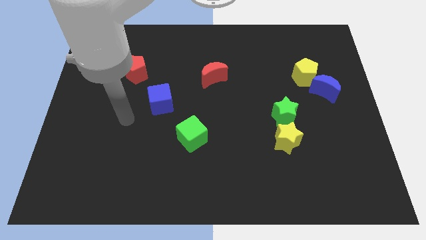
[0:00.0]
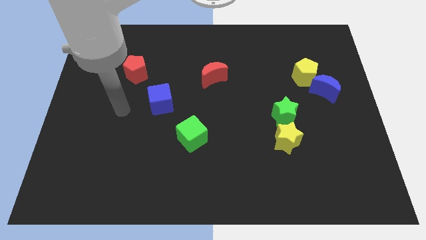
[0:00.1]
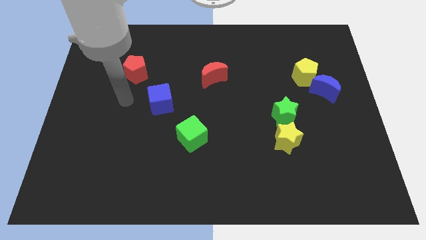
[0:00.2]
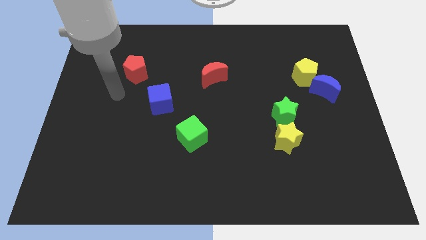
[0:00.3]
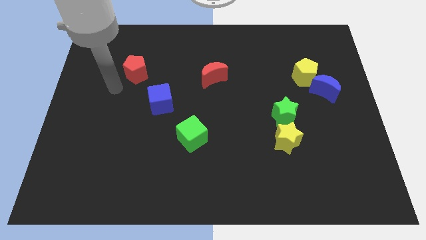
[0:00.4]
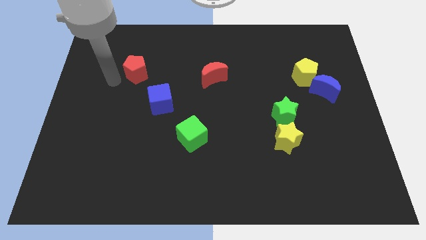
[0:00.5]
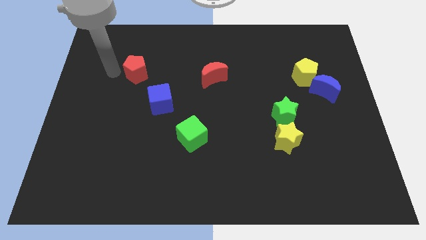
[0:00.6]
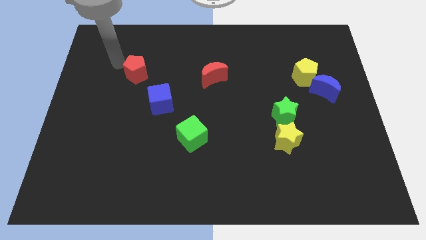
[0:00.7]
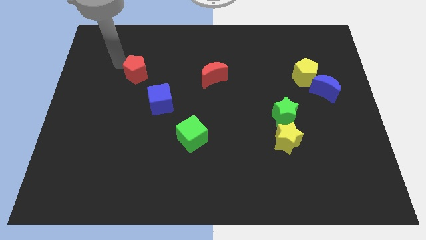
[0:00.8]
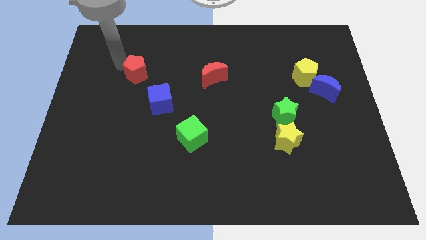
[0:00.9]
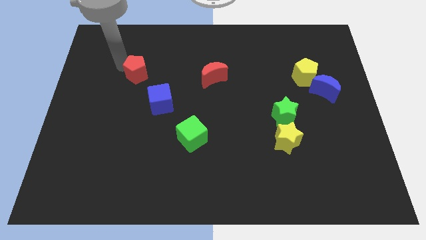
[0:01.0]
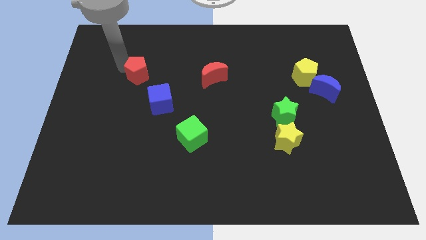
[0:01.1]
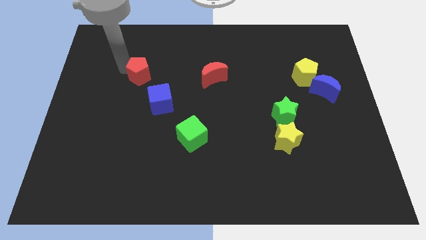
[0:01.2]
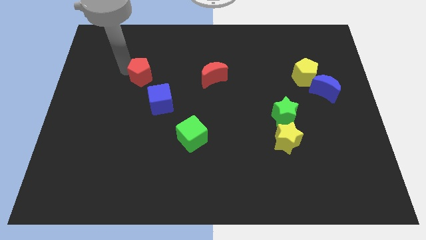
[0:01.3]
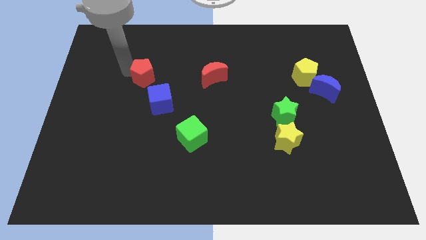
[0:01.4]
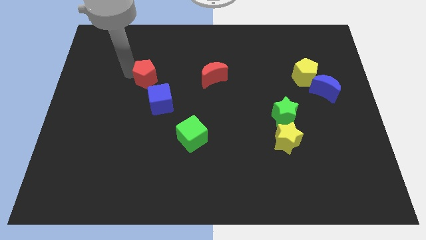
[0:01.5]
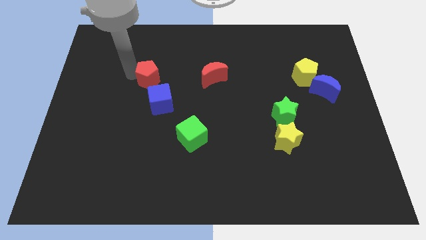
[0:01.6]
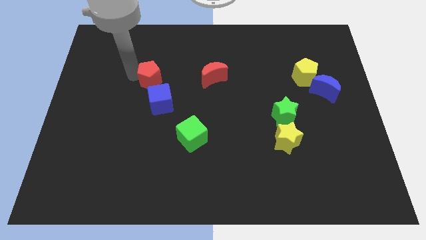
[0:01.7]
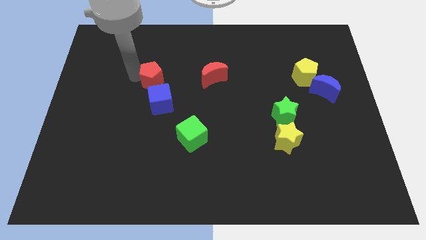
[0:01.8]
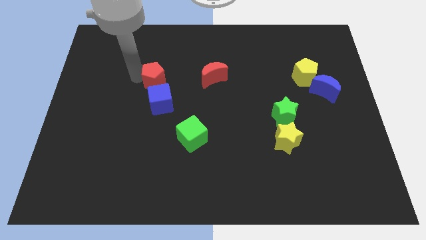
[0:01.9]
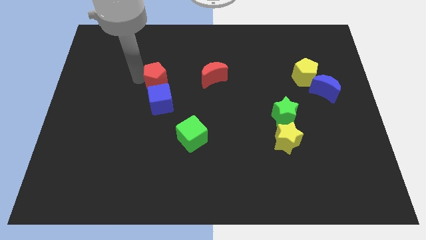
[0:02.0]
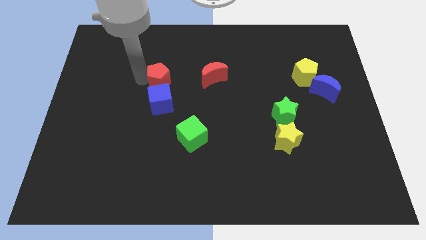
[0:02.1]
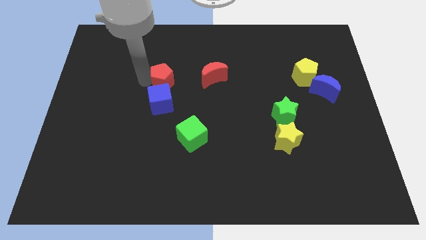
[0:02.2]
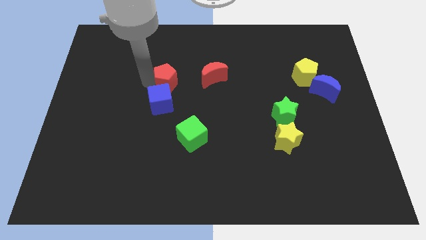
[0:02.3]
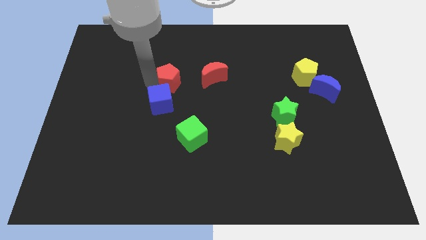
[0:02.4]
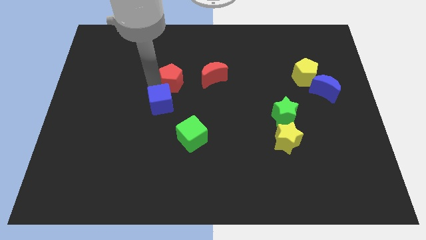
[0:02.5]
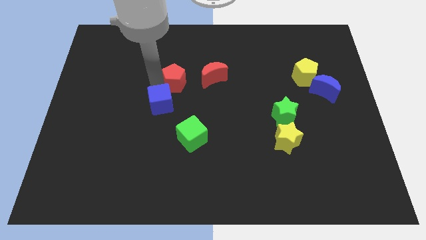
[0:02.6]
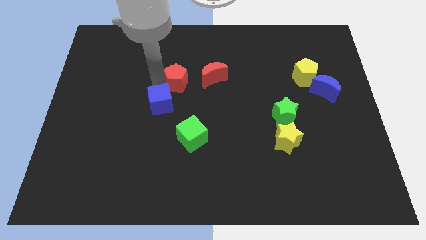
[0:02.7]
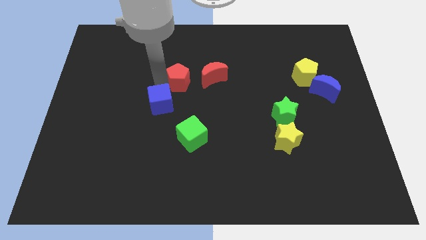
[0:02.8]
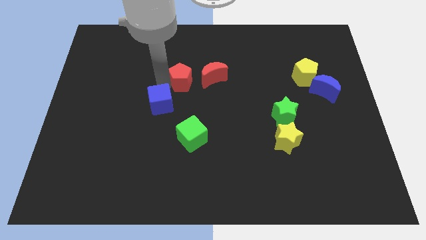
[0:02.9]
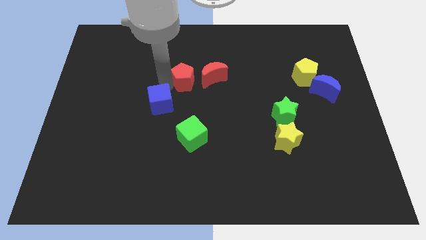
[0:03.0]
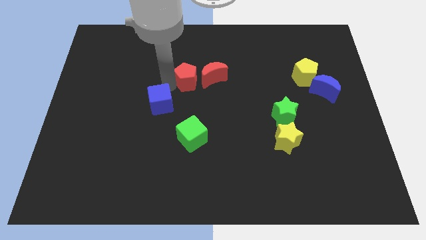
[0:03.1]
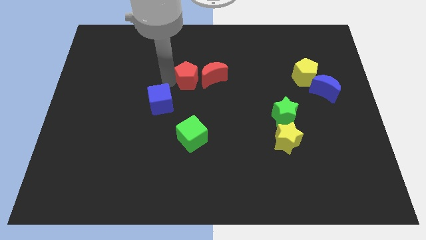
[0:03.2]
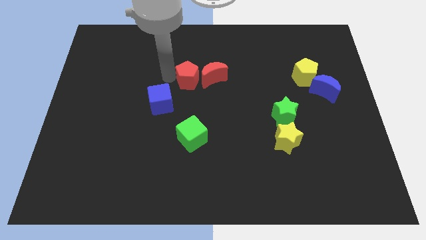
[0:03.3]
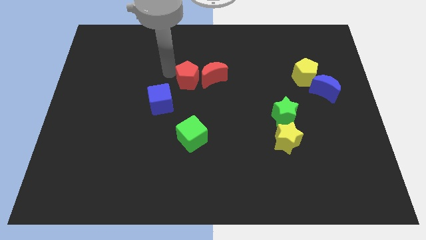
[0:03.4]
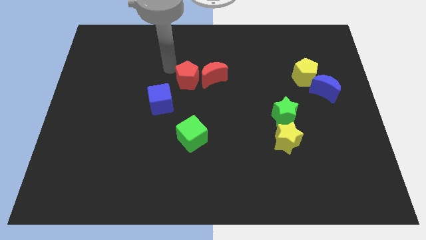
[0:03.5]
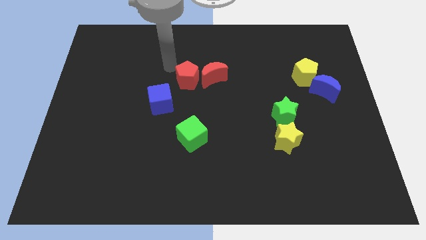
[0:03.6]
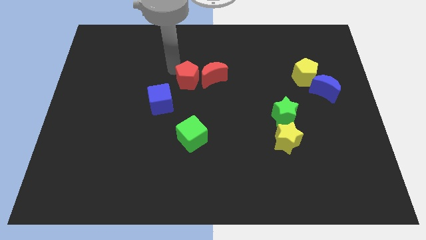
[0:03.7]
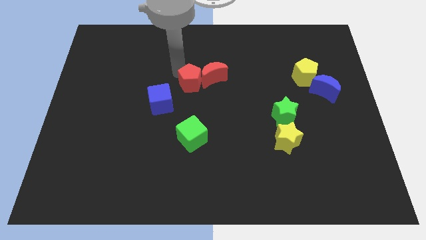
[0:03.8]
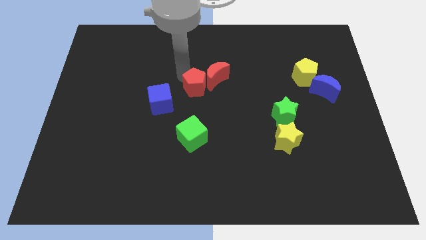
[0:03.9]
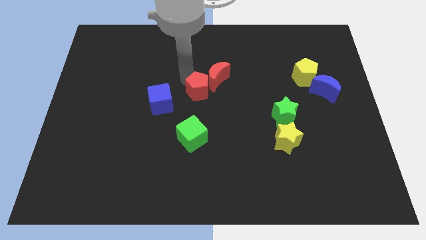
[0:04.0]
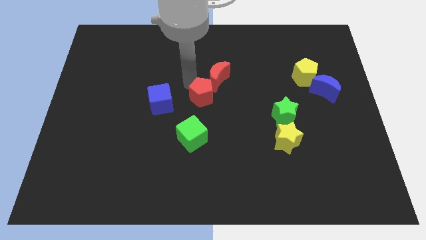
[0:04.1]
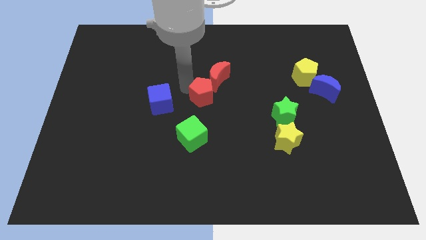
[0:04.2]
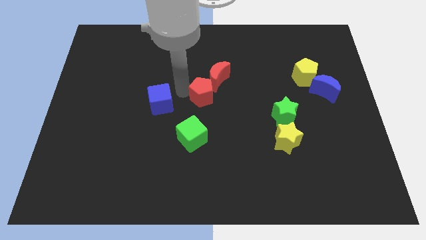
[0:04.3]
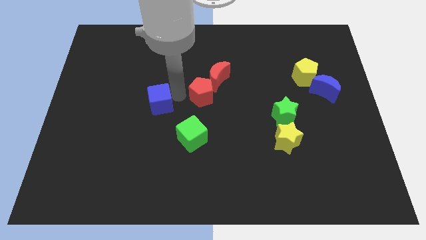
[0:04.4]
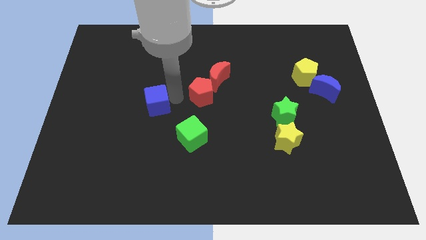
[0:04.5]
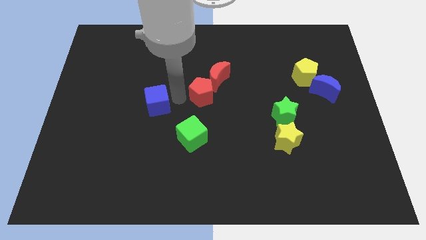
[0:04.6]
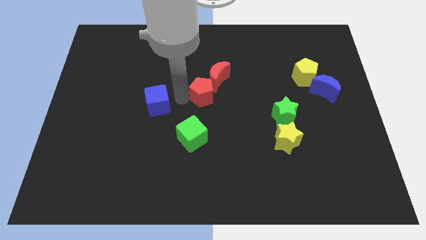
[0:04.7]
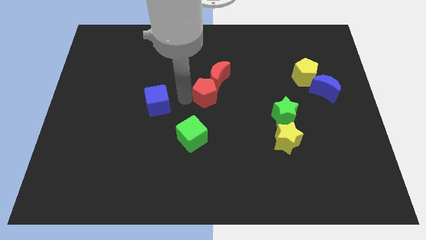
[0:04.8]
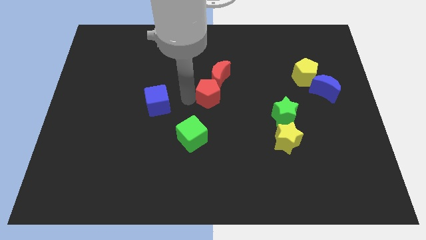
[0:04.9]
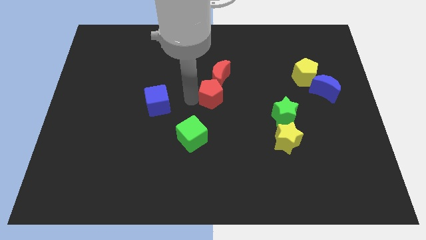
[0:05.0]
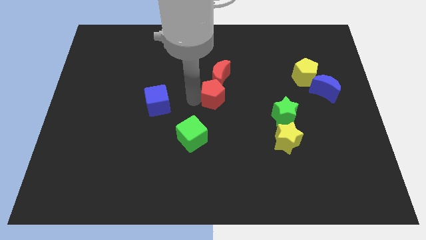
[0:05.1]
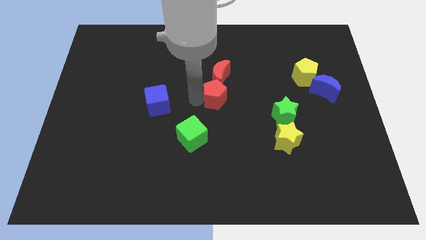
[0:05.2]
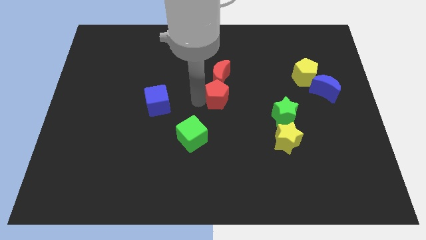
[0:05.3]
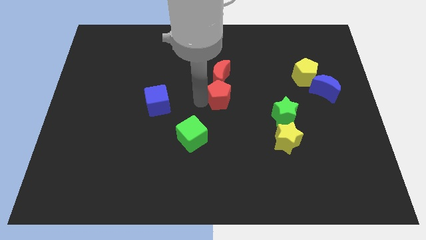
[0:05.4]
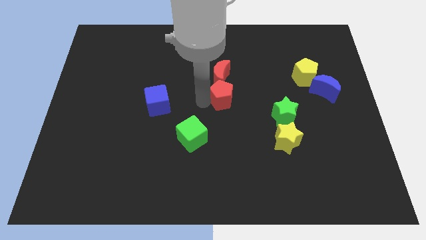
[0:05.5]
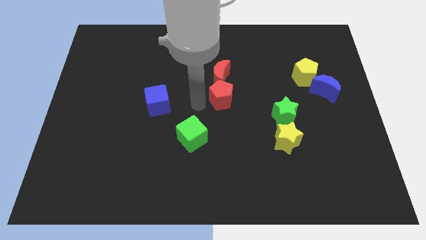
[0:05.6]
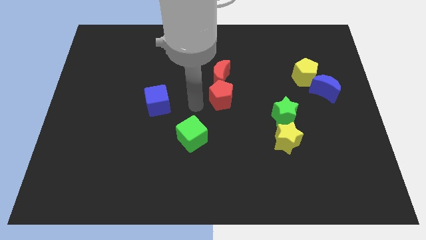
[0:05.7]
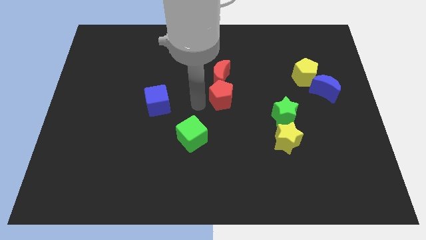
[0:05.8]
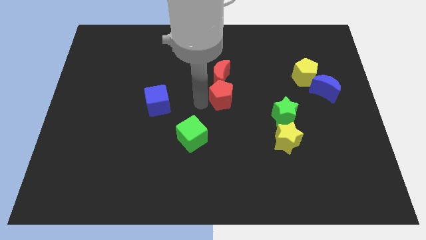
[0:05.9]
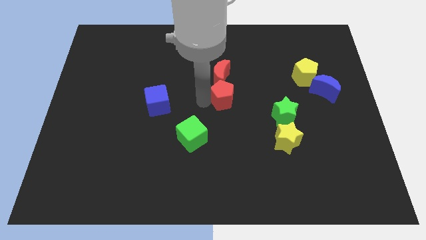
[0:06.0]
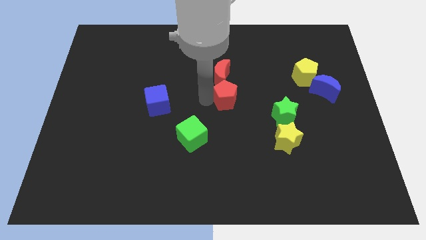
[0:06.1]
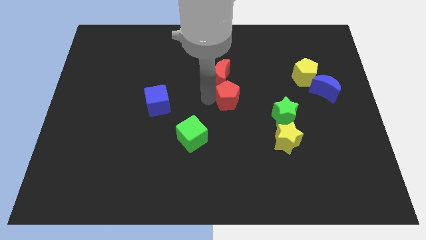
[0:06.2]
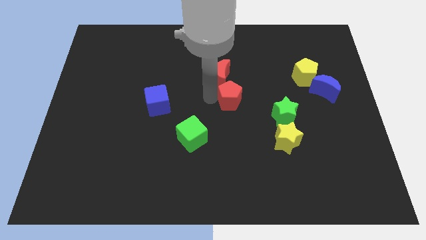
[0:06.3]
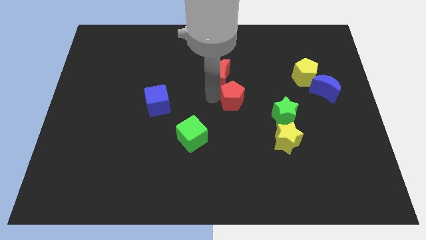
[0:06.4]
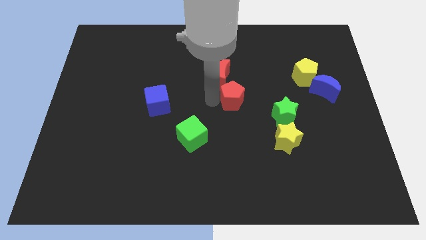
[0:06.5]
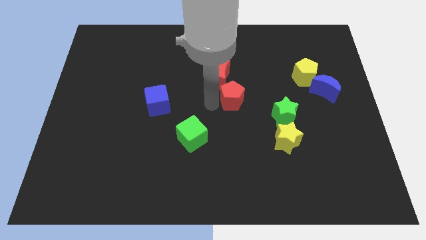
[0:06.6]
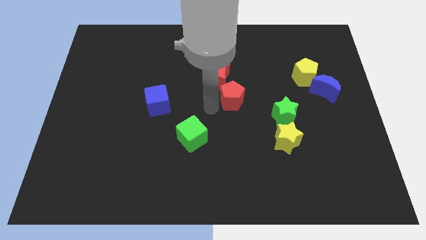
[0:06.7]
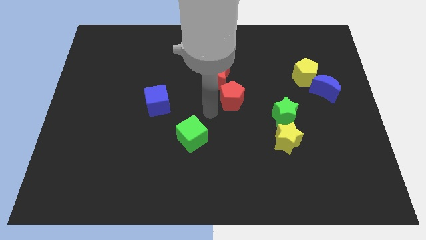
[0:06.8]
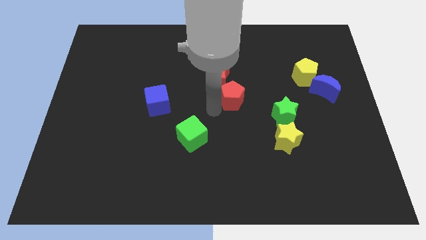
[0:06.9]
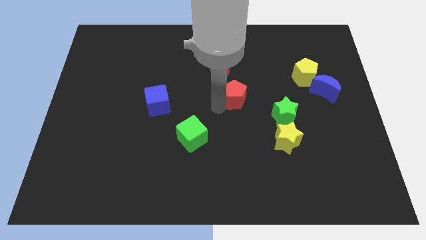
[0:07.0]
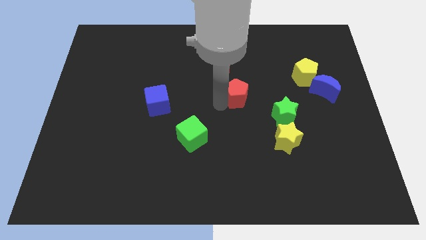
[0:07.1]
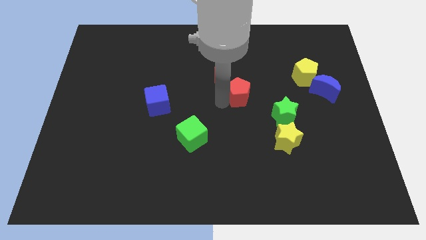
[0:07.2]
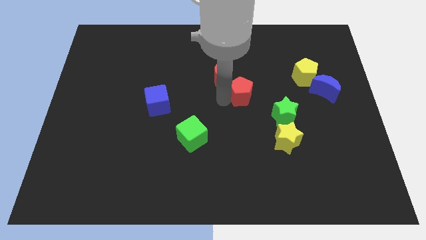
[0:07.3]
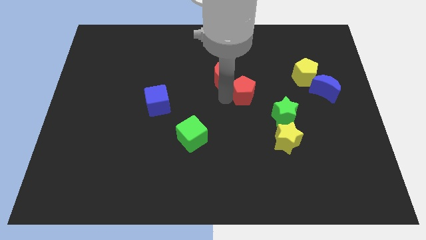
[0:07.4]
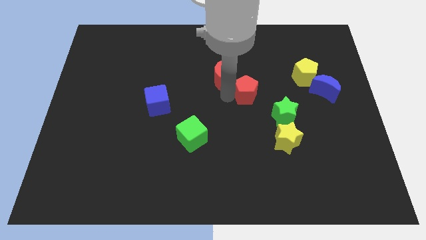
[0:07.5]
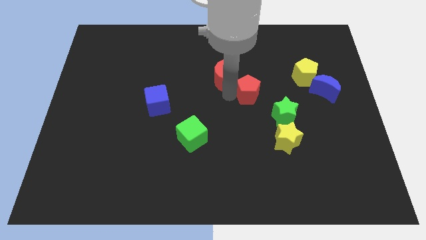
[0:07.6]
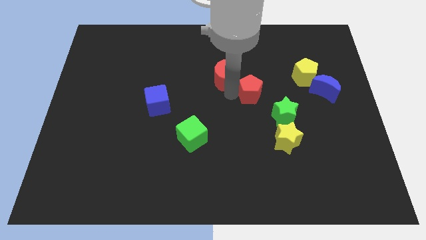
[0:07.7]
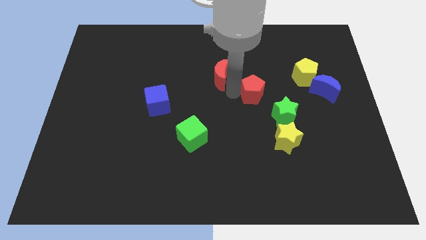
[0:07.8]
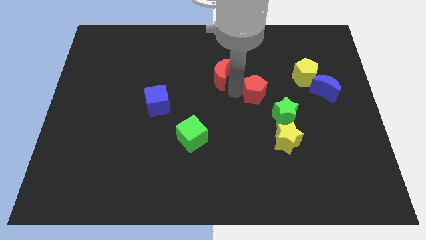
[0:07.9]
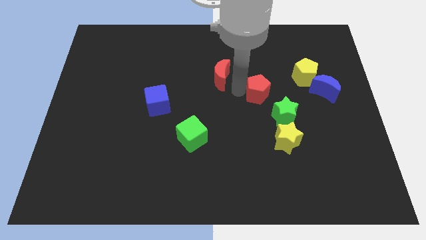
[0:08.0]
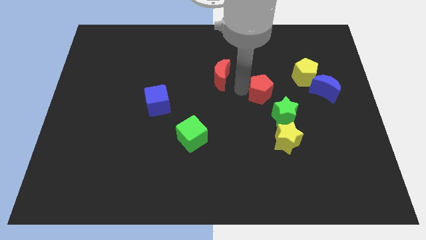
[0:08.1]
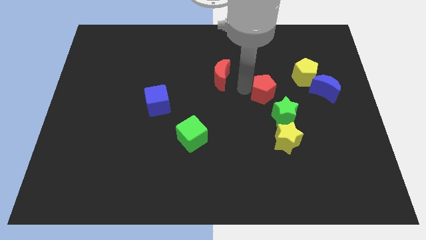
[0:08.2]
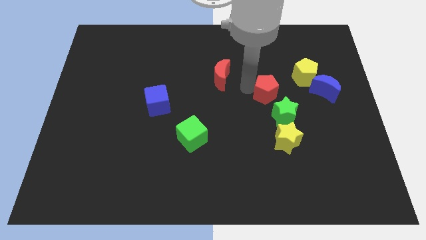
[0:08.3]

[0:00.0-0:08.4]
move the red pentagon to the bottom left of the yellow pentagon
